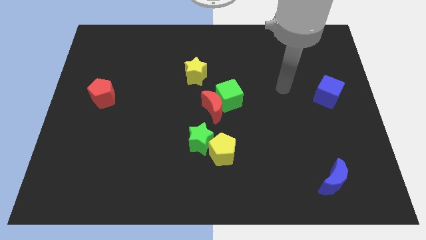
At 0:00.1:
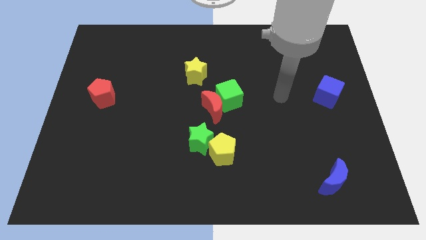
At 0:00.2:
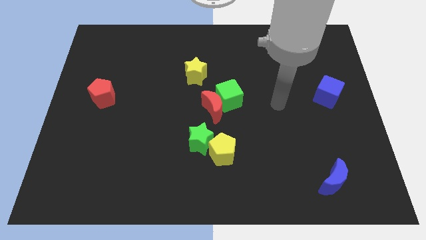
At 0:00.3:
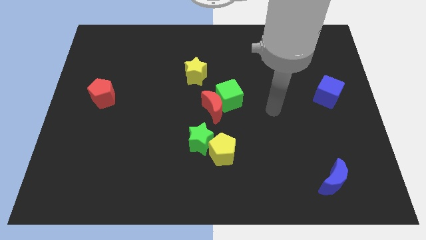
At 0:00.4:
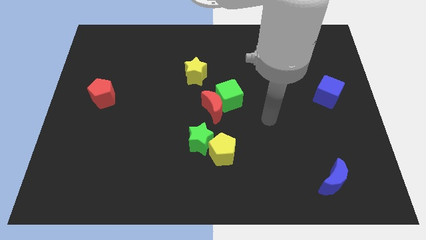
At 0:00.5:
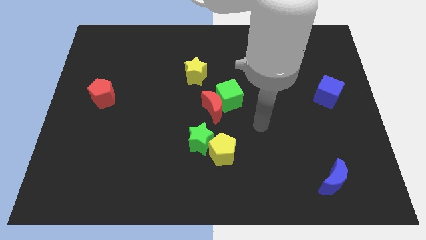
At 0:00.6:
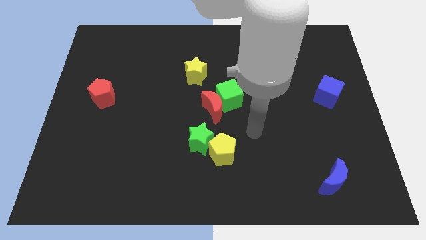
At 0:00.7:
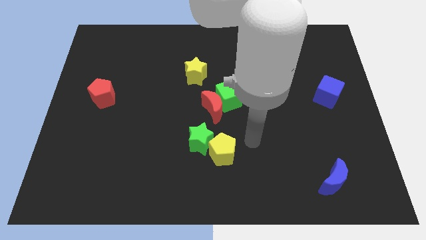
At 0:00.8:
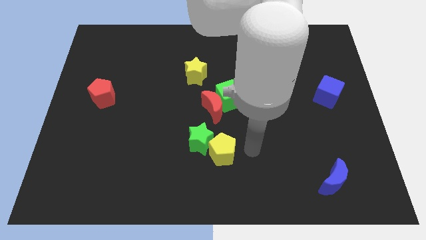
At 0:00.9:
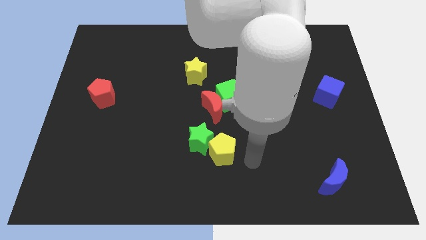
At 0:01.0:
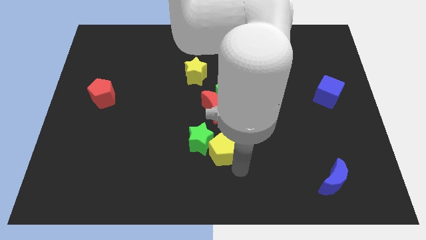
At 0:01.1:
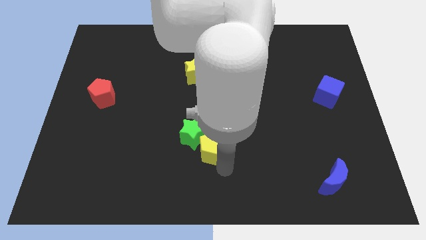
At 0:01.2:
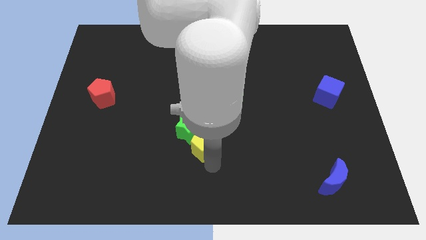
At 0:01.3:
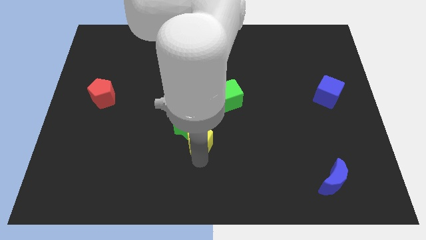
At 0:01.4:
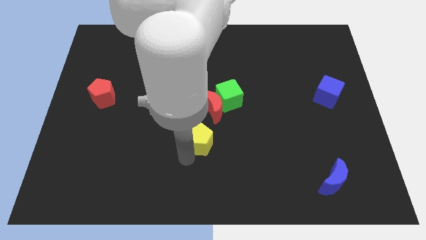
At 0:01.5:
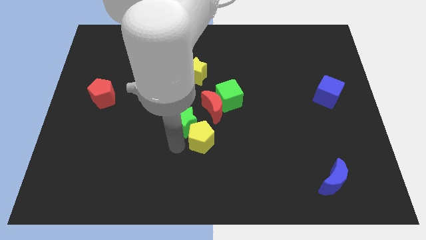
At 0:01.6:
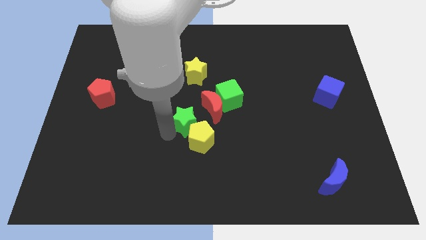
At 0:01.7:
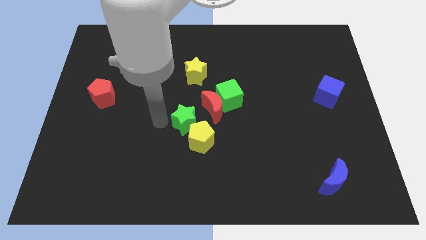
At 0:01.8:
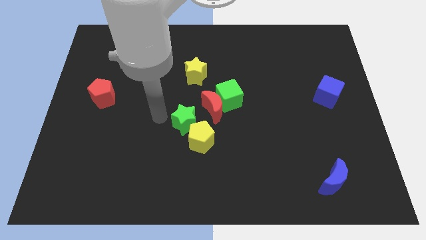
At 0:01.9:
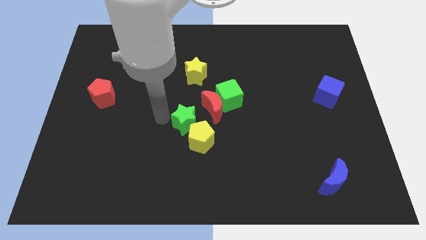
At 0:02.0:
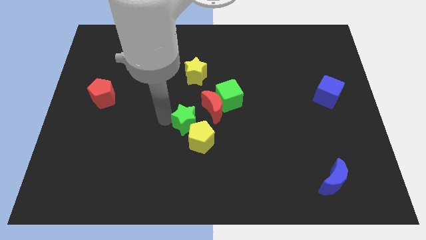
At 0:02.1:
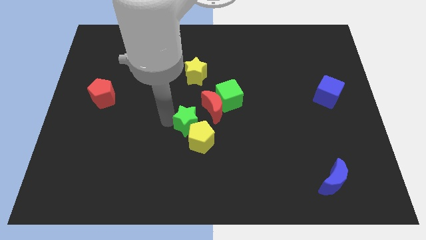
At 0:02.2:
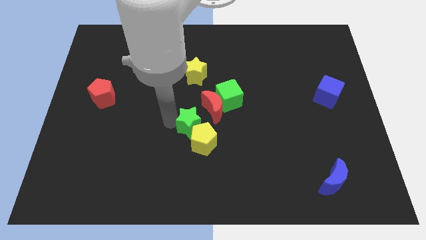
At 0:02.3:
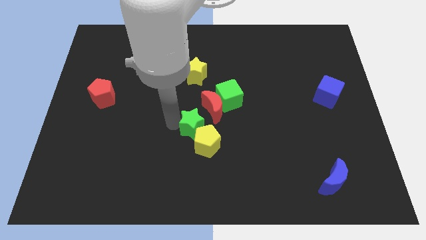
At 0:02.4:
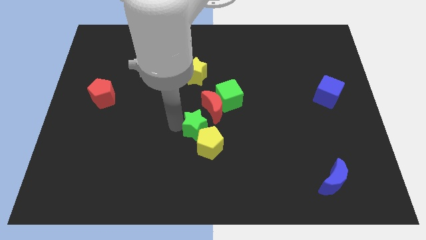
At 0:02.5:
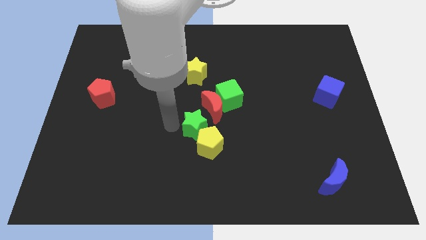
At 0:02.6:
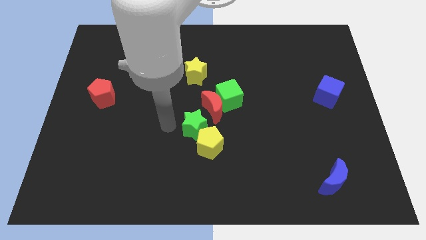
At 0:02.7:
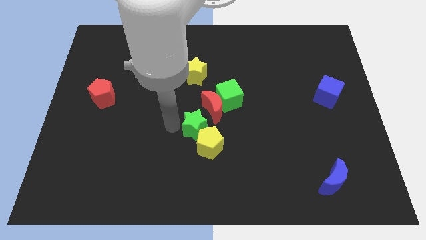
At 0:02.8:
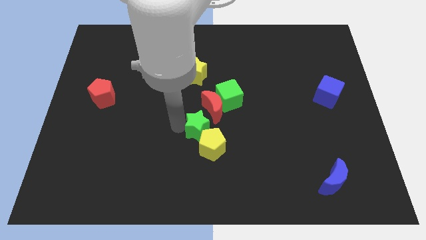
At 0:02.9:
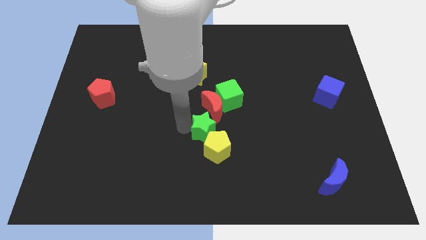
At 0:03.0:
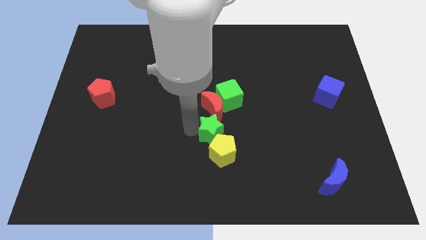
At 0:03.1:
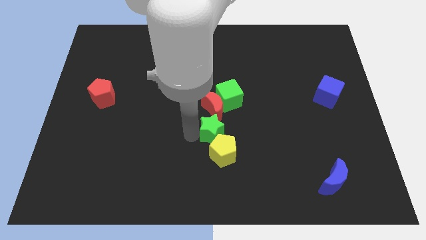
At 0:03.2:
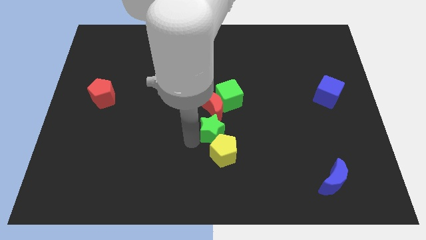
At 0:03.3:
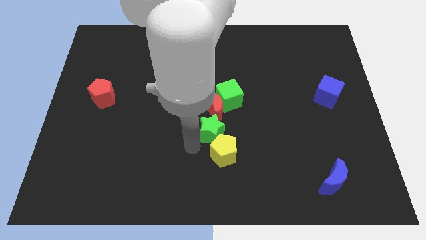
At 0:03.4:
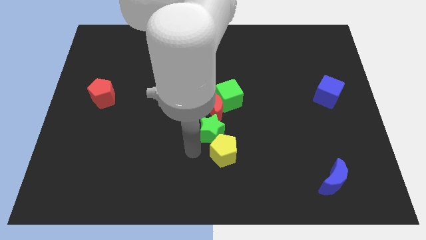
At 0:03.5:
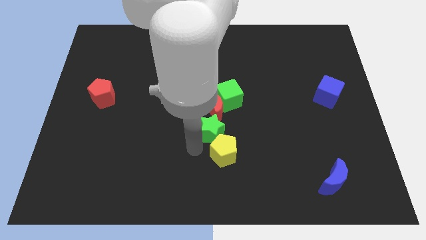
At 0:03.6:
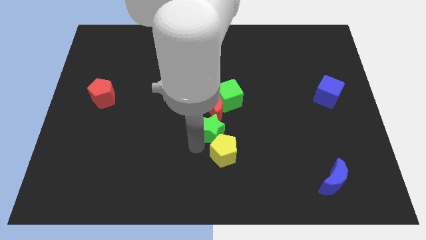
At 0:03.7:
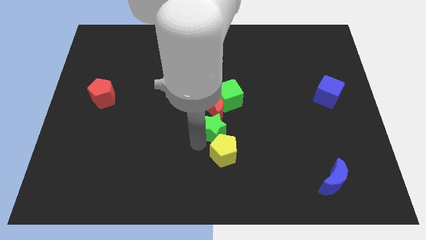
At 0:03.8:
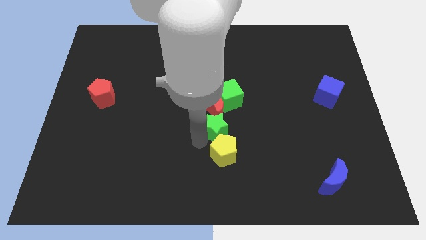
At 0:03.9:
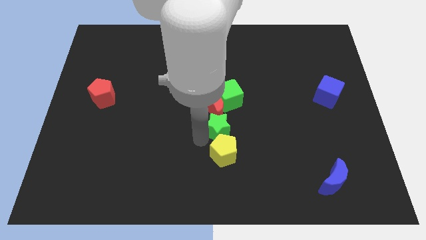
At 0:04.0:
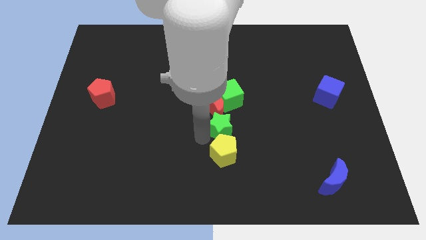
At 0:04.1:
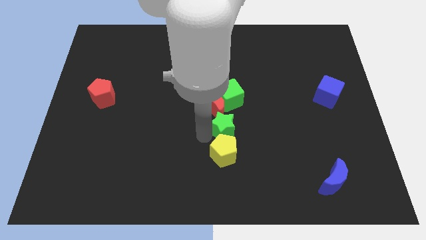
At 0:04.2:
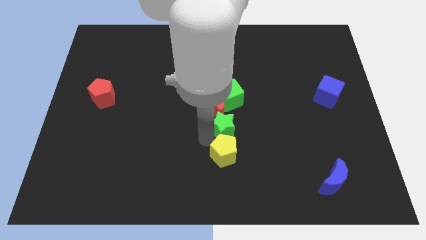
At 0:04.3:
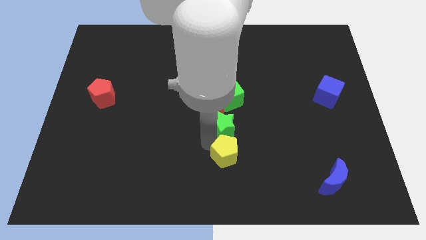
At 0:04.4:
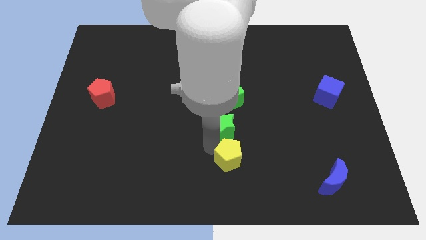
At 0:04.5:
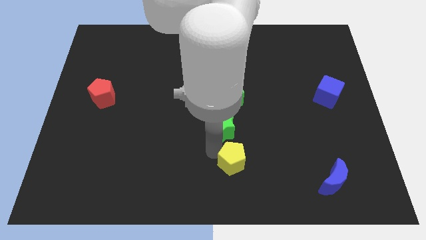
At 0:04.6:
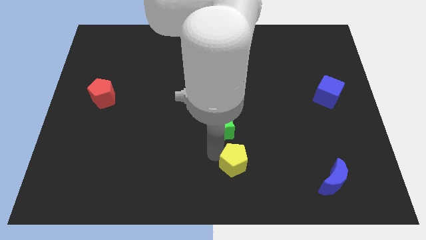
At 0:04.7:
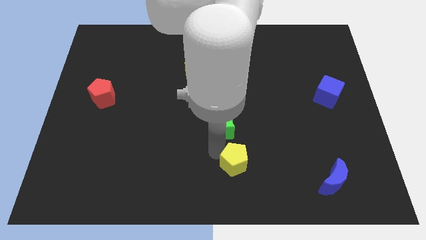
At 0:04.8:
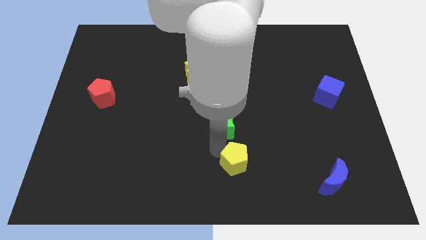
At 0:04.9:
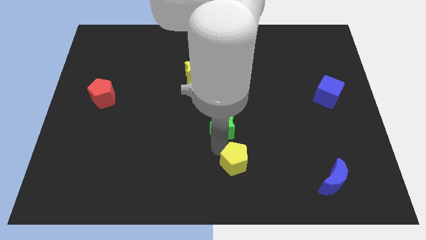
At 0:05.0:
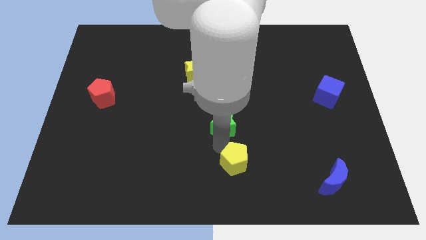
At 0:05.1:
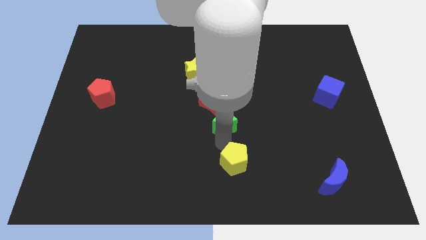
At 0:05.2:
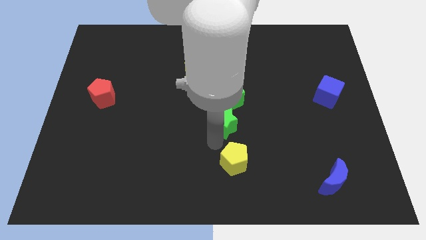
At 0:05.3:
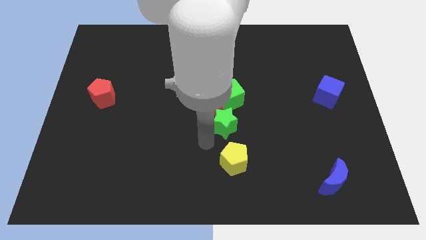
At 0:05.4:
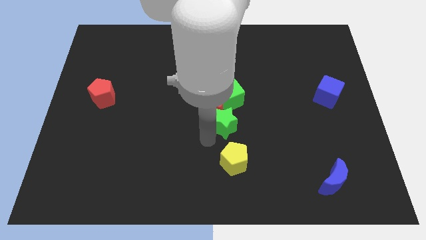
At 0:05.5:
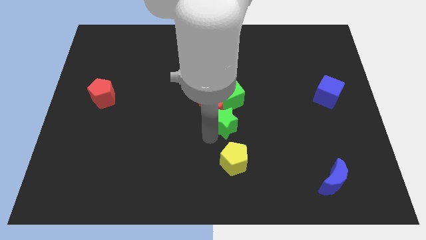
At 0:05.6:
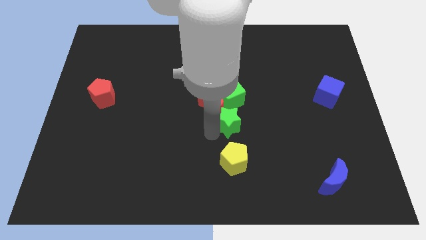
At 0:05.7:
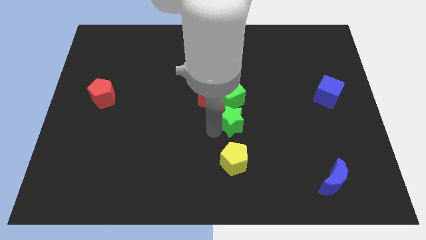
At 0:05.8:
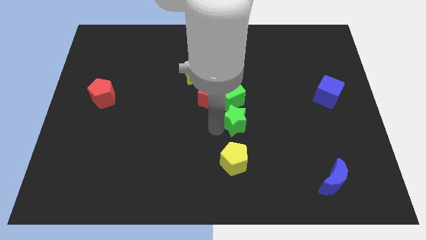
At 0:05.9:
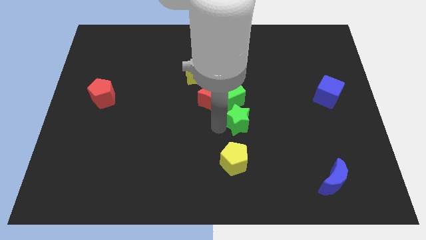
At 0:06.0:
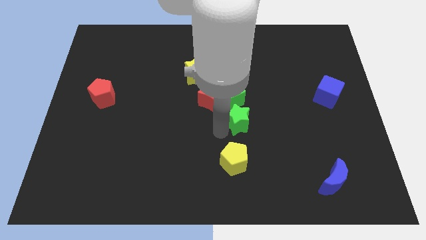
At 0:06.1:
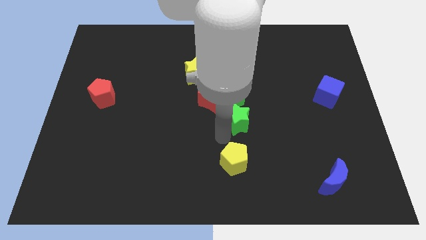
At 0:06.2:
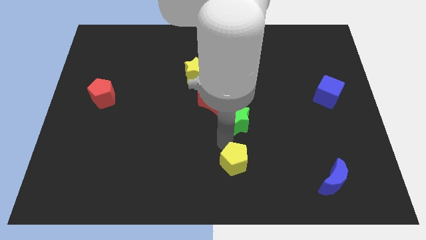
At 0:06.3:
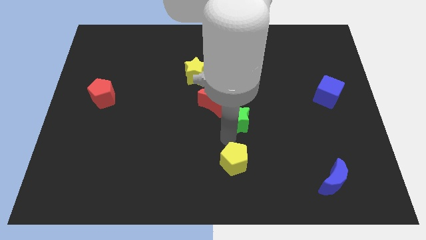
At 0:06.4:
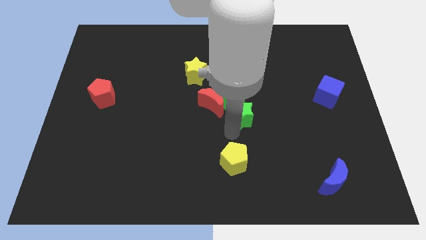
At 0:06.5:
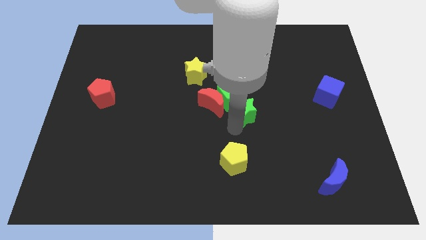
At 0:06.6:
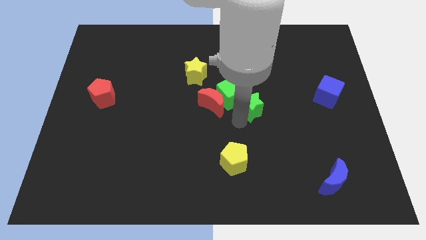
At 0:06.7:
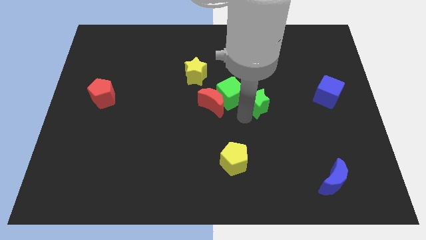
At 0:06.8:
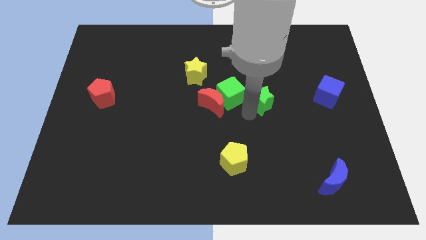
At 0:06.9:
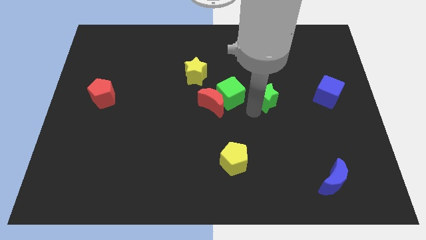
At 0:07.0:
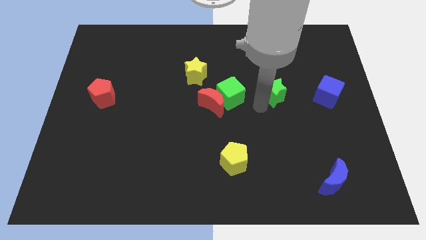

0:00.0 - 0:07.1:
slide the green star upwards and to the right diagonally

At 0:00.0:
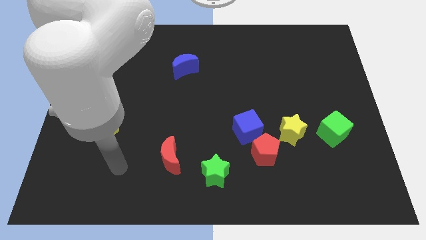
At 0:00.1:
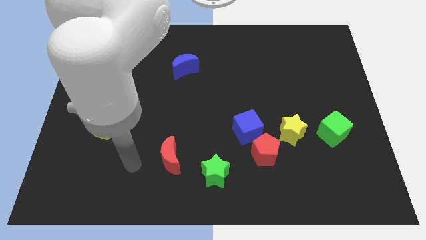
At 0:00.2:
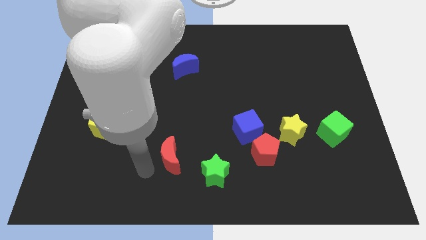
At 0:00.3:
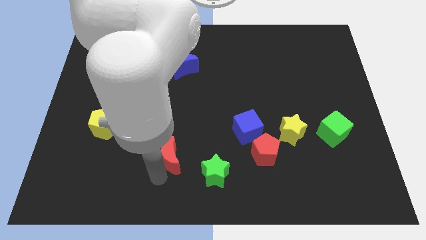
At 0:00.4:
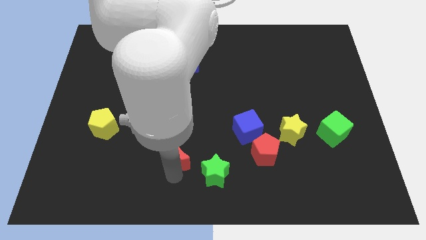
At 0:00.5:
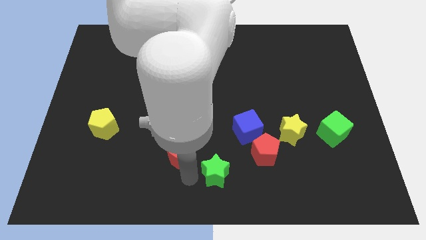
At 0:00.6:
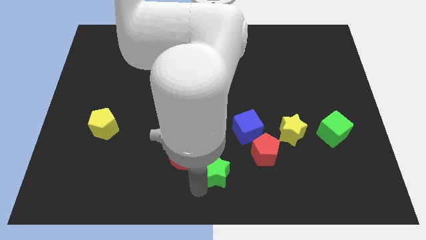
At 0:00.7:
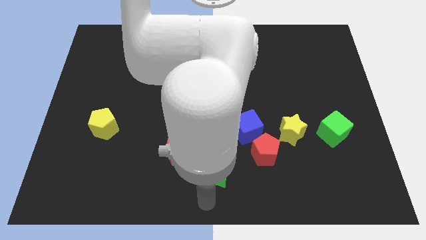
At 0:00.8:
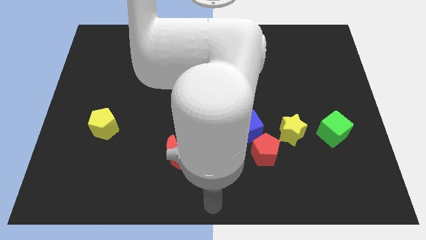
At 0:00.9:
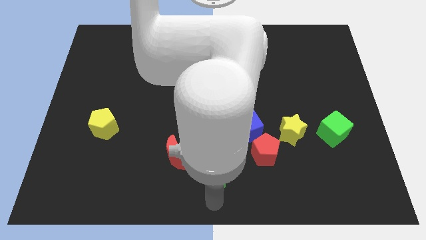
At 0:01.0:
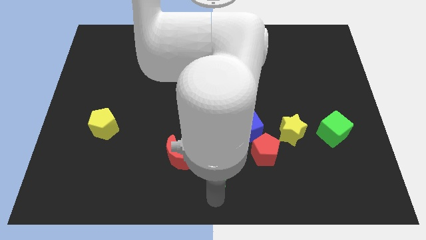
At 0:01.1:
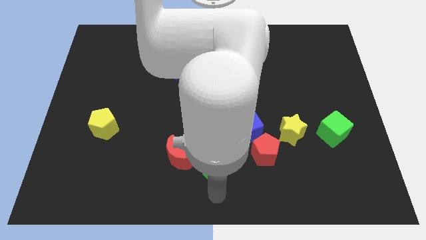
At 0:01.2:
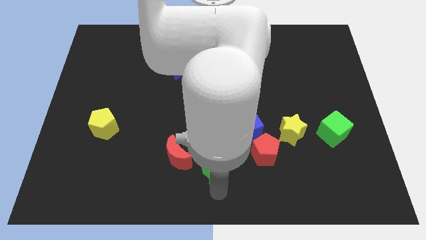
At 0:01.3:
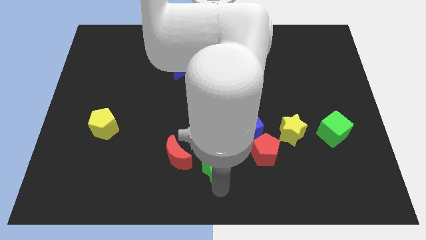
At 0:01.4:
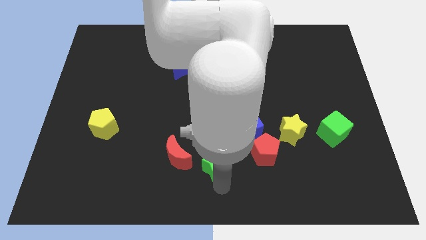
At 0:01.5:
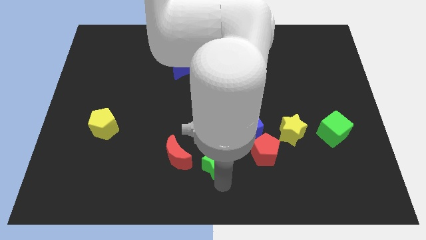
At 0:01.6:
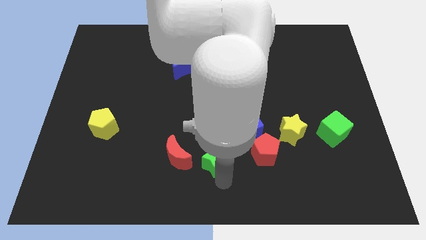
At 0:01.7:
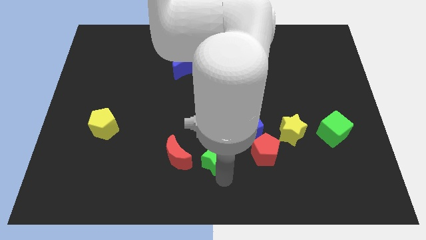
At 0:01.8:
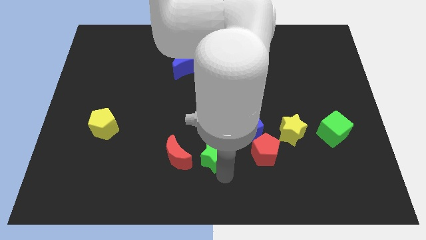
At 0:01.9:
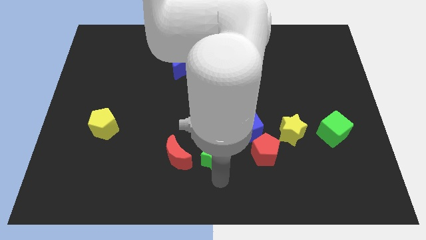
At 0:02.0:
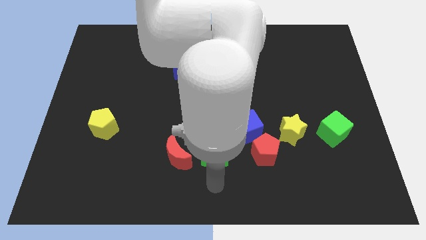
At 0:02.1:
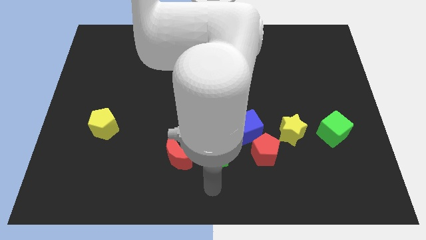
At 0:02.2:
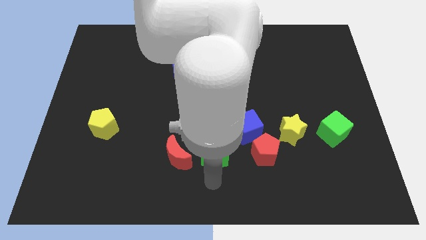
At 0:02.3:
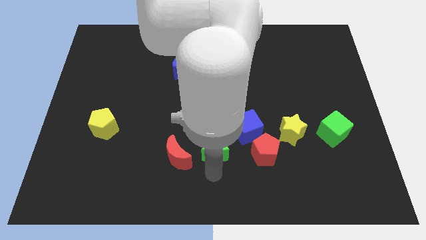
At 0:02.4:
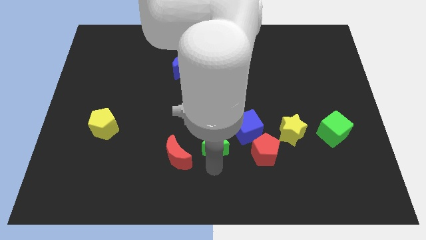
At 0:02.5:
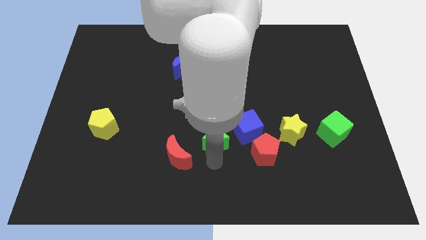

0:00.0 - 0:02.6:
slide the green star a little bit up
